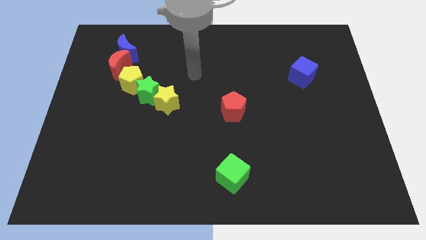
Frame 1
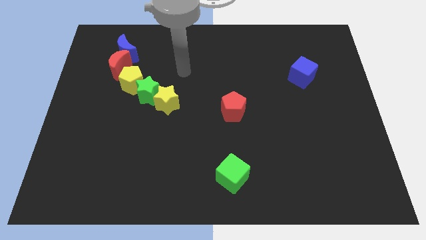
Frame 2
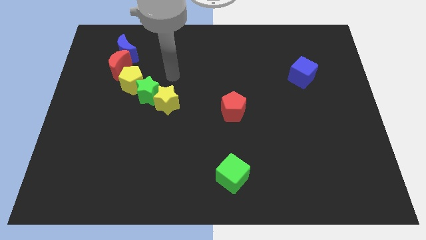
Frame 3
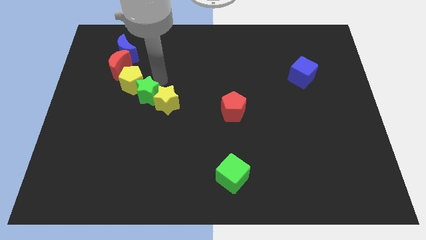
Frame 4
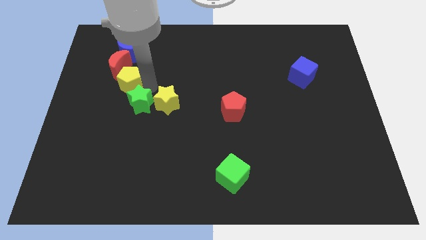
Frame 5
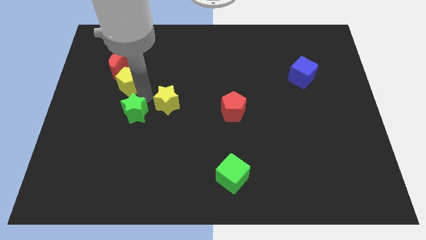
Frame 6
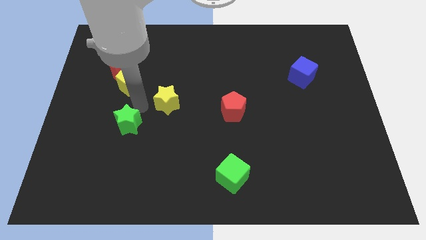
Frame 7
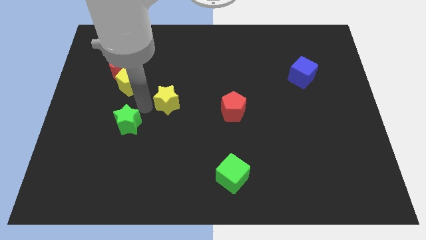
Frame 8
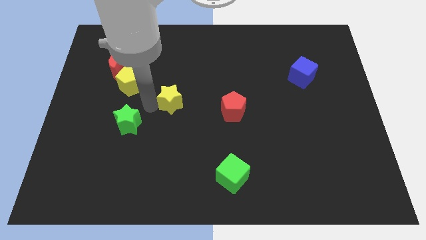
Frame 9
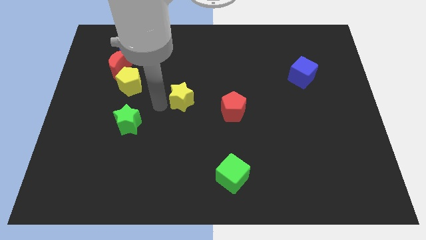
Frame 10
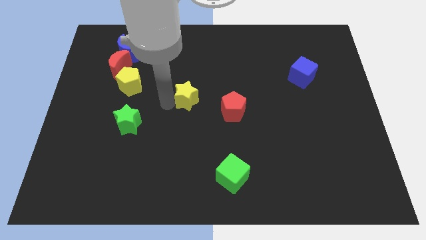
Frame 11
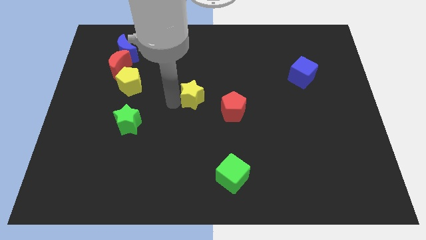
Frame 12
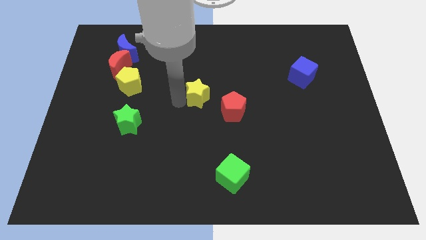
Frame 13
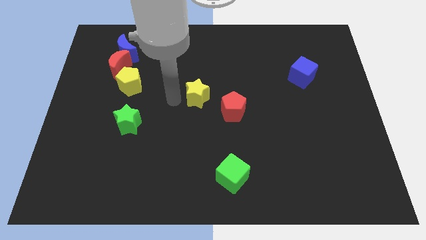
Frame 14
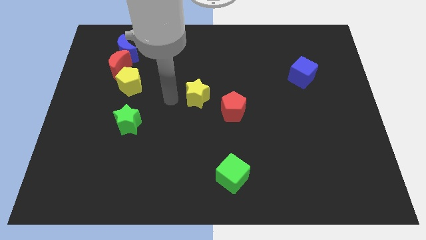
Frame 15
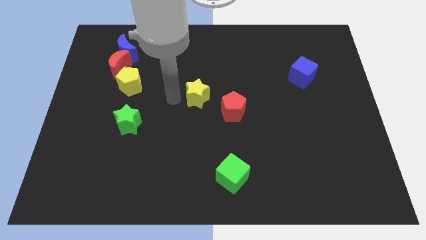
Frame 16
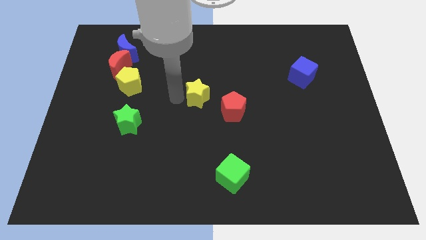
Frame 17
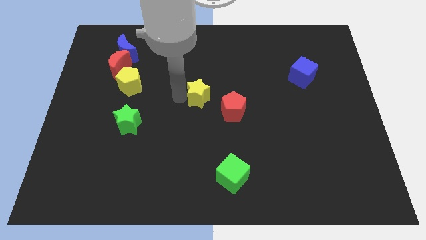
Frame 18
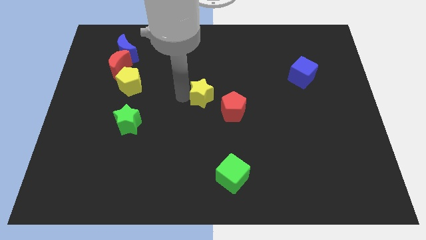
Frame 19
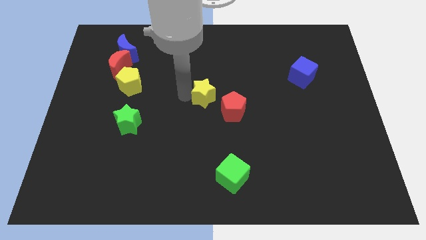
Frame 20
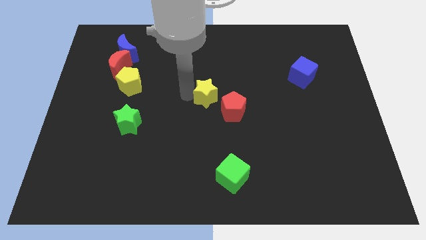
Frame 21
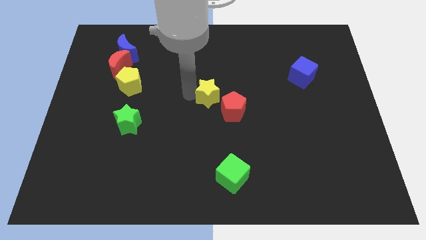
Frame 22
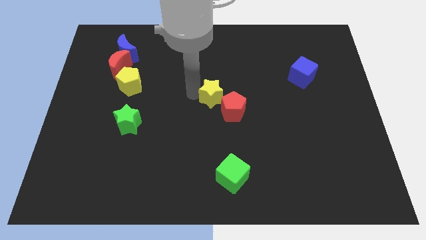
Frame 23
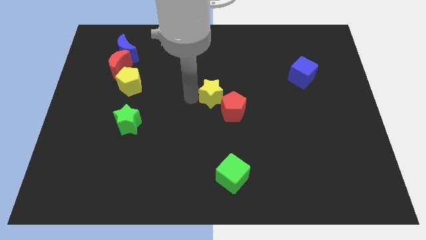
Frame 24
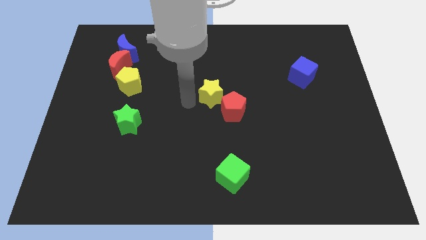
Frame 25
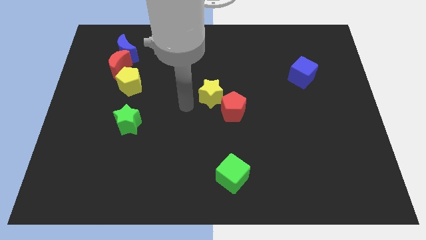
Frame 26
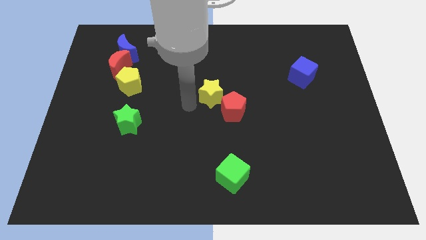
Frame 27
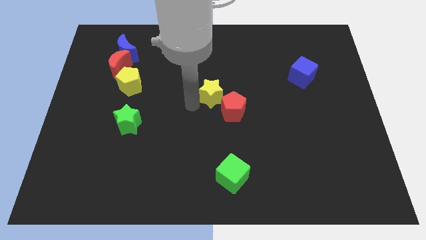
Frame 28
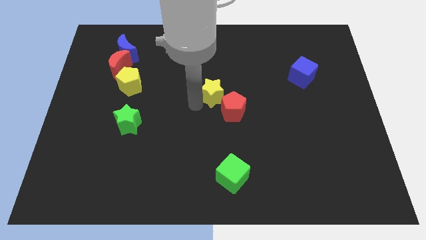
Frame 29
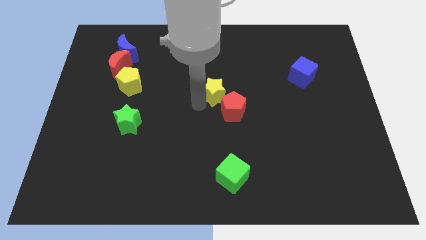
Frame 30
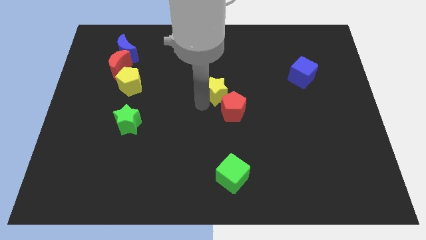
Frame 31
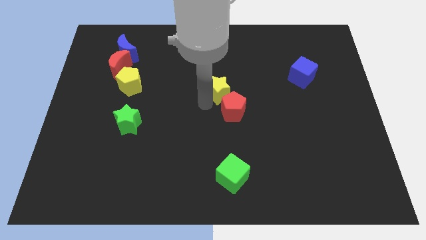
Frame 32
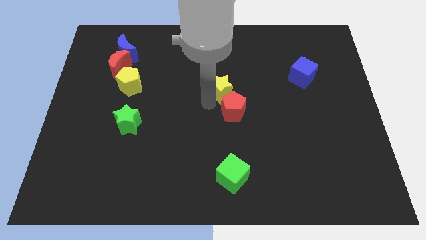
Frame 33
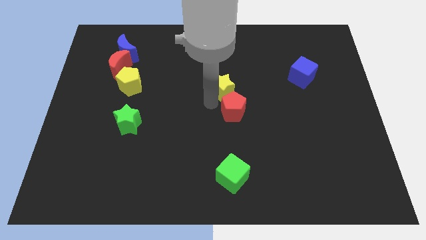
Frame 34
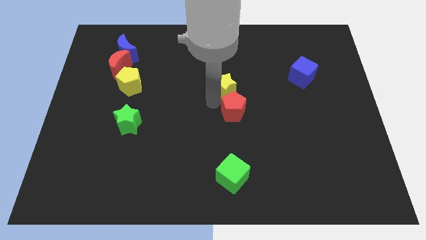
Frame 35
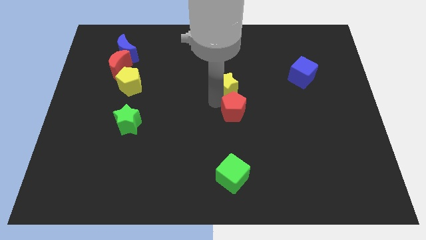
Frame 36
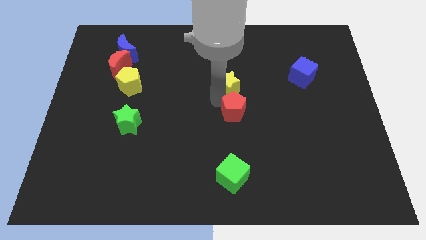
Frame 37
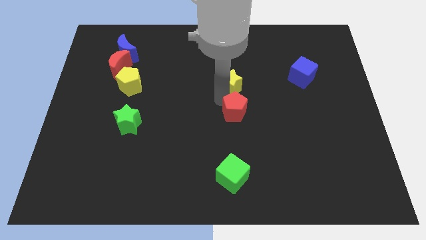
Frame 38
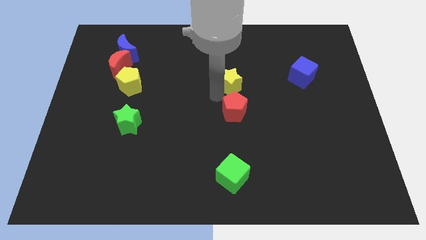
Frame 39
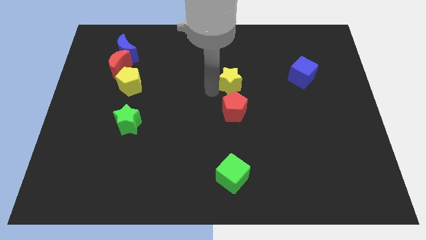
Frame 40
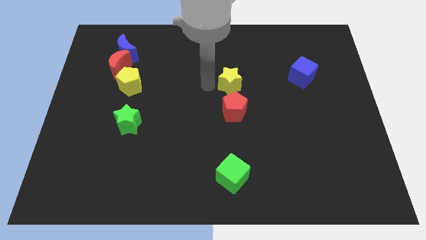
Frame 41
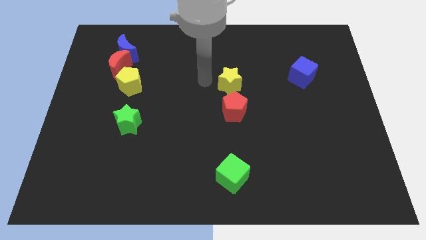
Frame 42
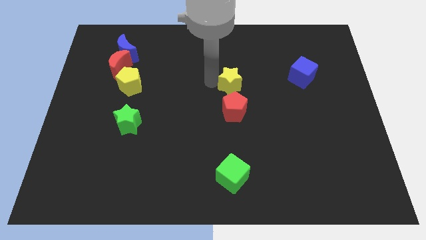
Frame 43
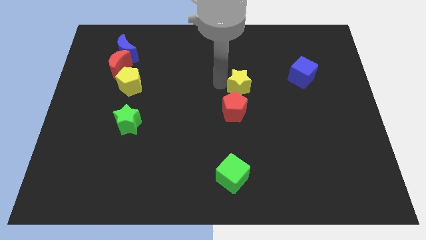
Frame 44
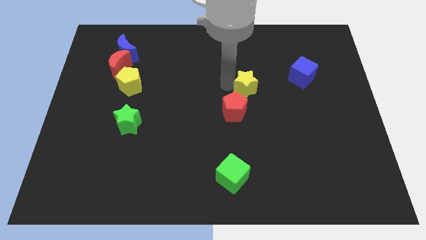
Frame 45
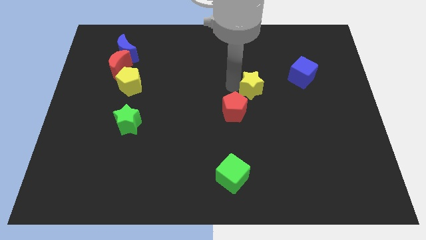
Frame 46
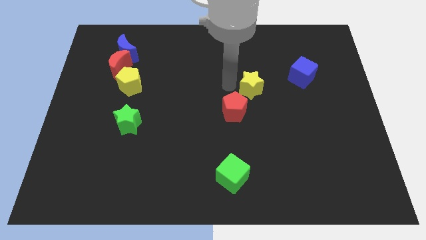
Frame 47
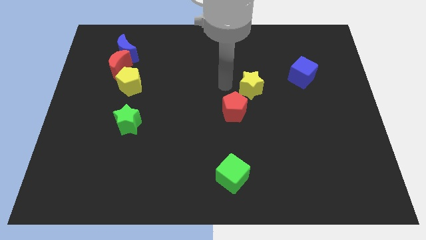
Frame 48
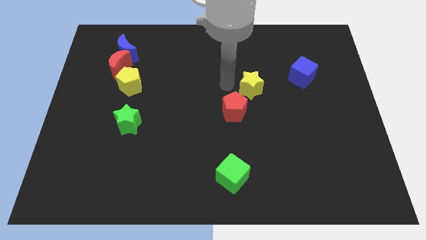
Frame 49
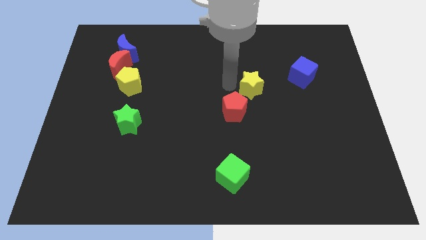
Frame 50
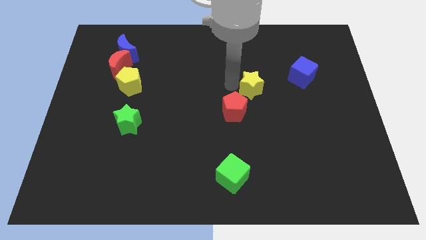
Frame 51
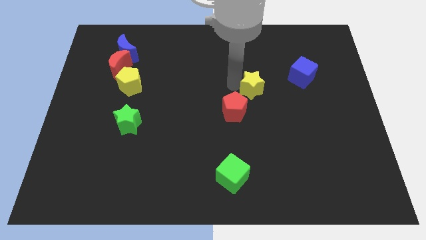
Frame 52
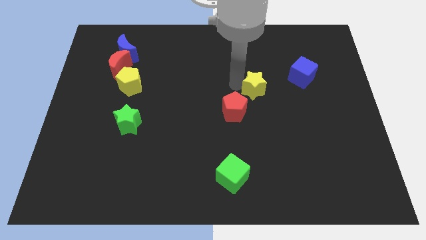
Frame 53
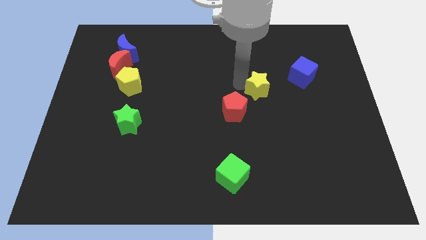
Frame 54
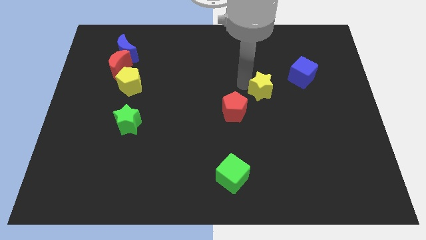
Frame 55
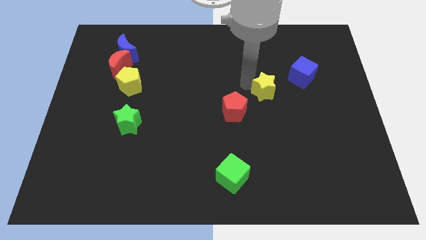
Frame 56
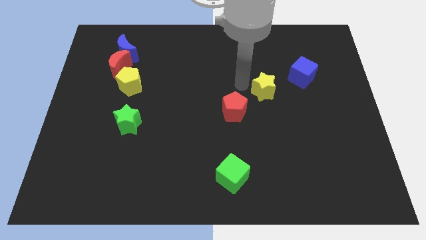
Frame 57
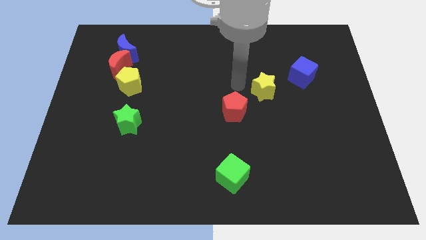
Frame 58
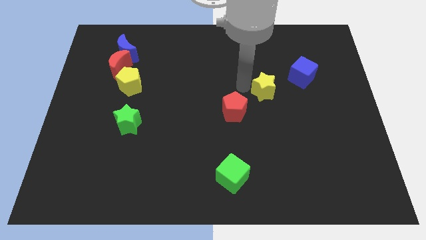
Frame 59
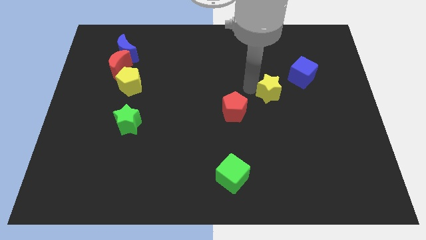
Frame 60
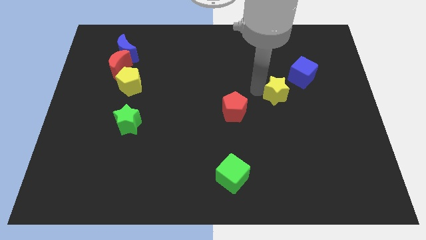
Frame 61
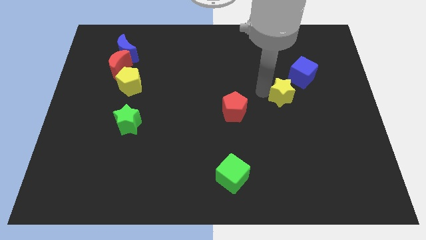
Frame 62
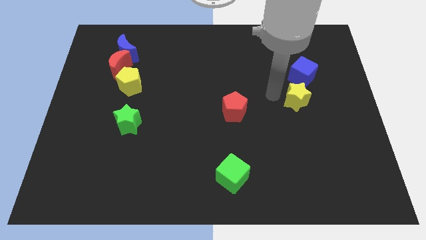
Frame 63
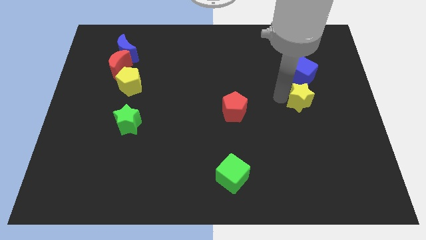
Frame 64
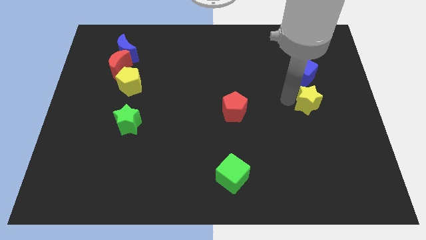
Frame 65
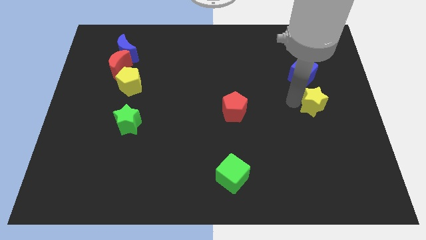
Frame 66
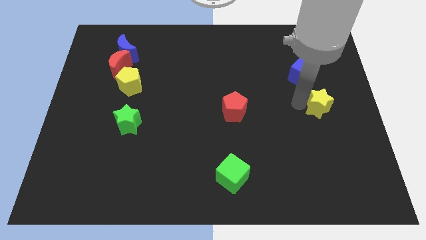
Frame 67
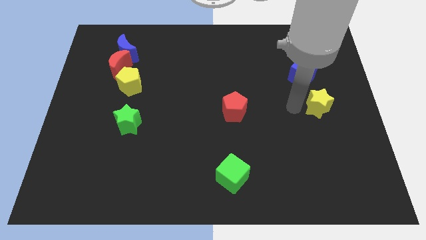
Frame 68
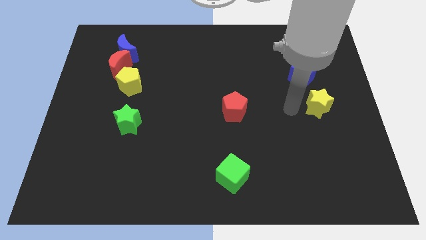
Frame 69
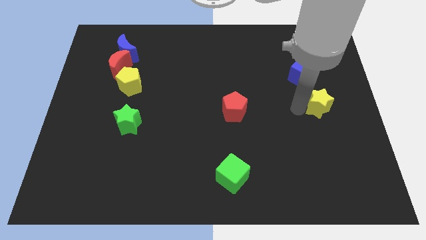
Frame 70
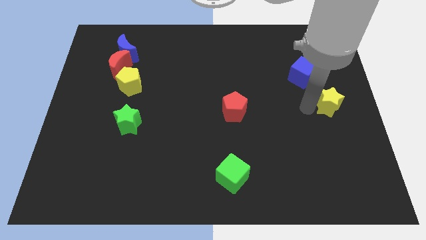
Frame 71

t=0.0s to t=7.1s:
push the yellow star to the center right
